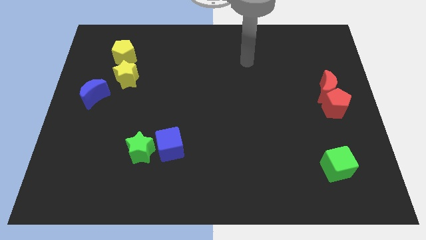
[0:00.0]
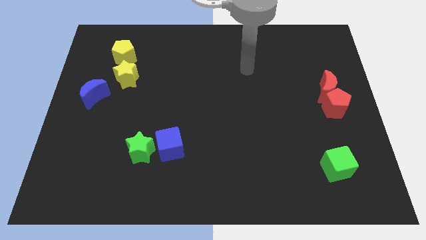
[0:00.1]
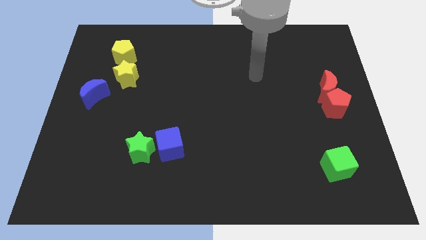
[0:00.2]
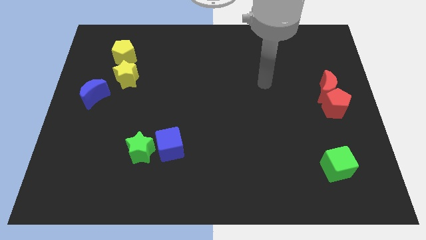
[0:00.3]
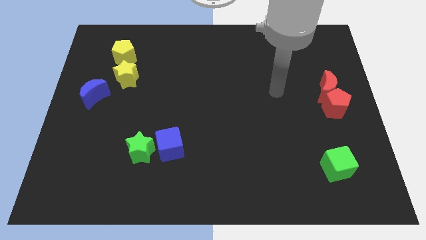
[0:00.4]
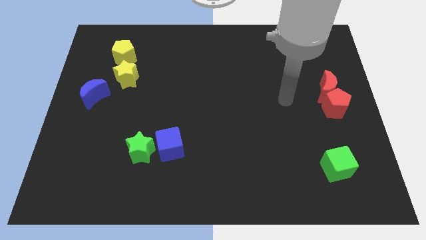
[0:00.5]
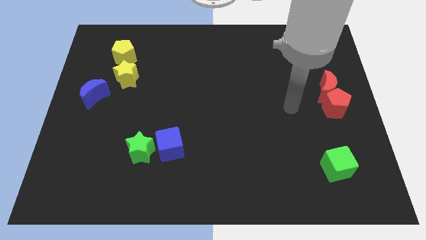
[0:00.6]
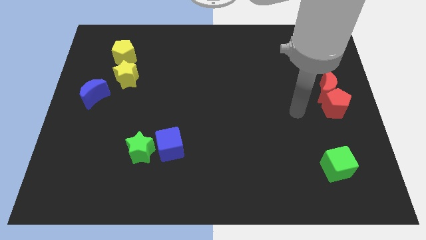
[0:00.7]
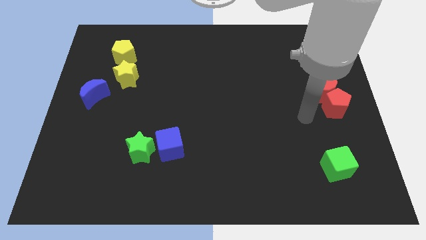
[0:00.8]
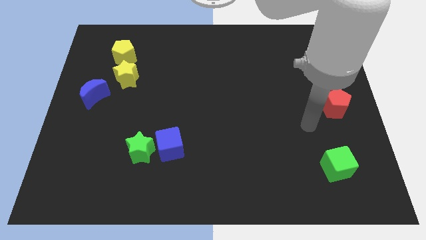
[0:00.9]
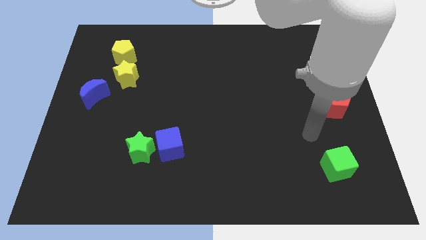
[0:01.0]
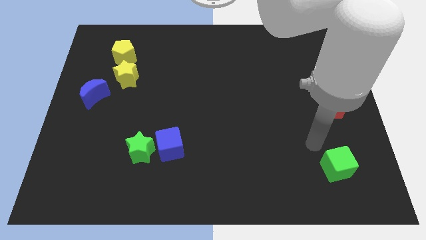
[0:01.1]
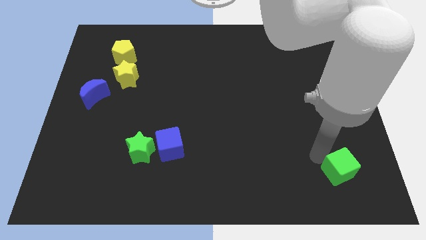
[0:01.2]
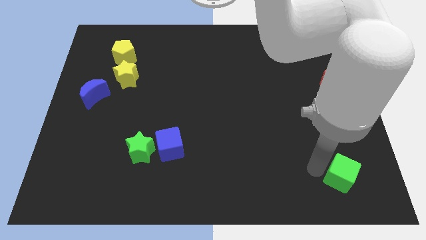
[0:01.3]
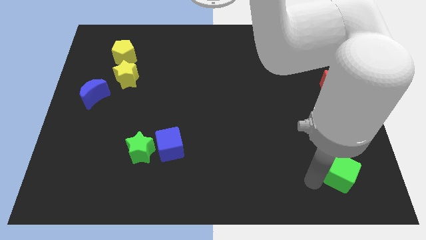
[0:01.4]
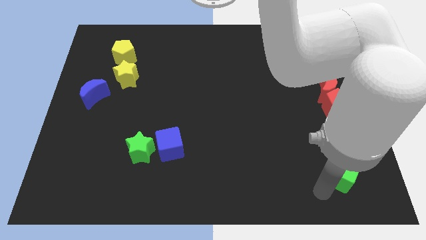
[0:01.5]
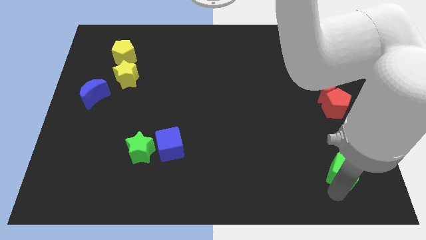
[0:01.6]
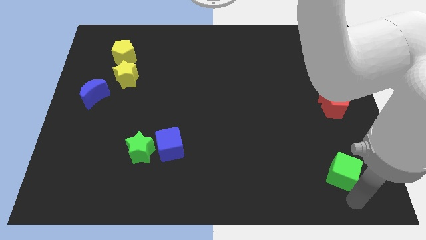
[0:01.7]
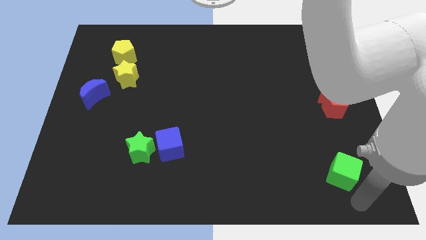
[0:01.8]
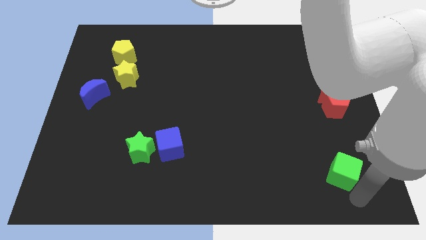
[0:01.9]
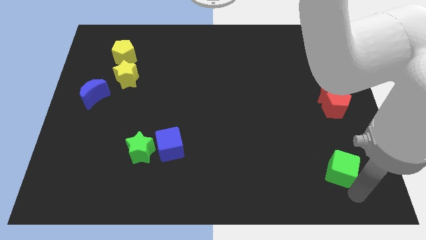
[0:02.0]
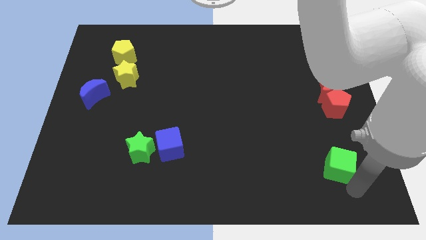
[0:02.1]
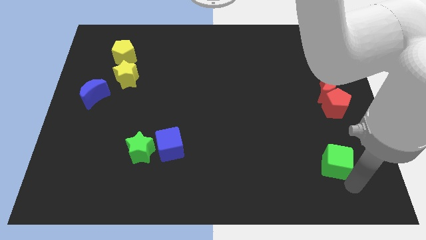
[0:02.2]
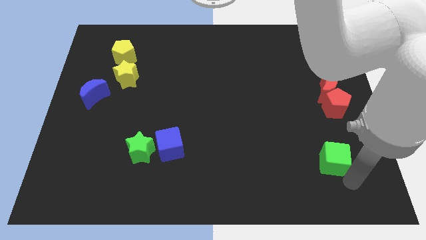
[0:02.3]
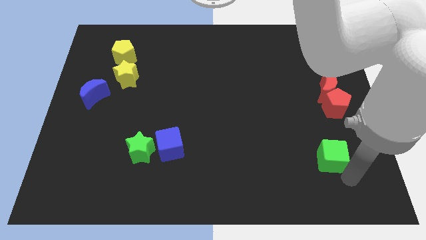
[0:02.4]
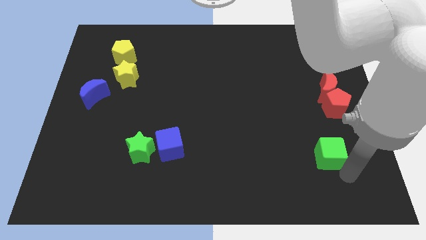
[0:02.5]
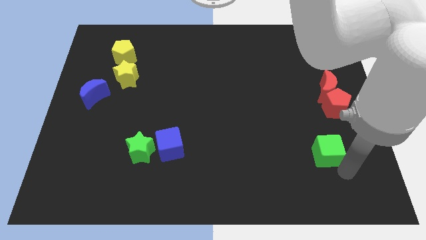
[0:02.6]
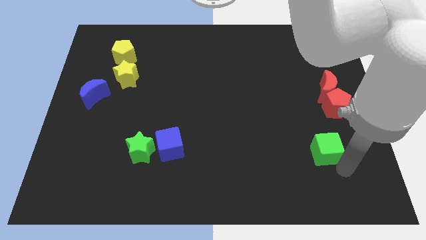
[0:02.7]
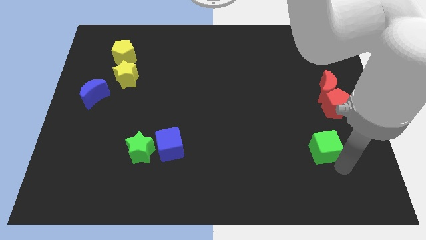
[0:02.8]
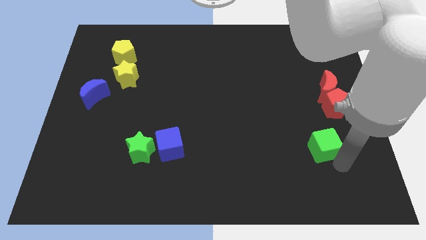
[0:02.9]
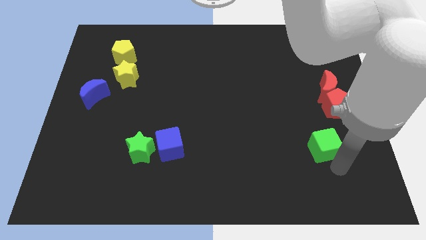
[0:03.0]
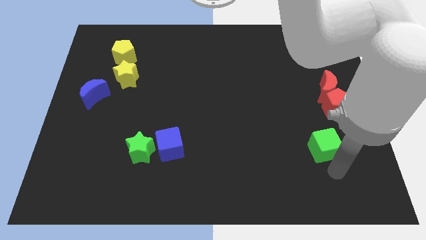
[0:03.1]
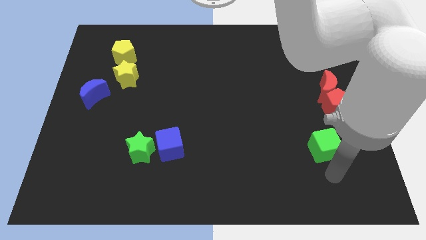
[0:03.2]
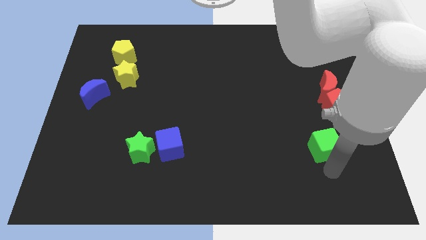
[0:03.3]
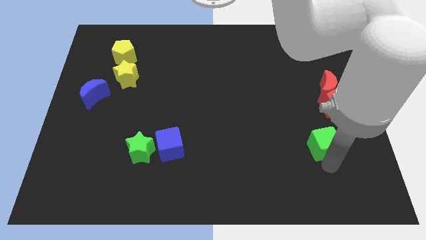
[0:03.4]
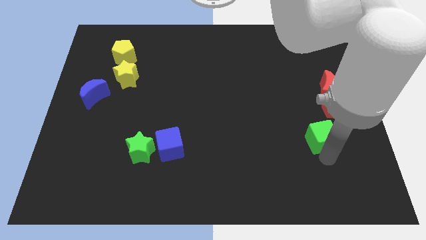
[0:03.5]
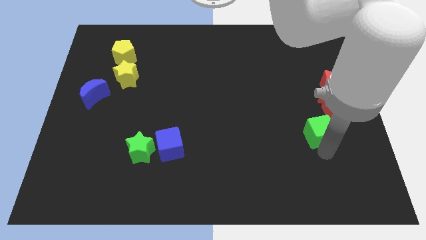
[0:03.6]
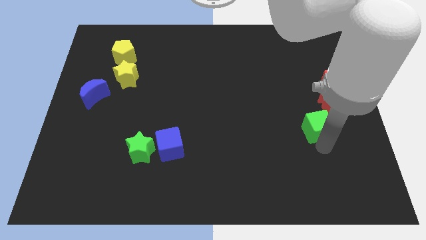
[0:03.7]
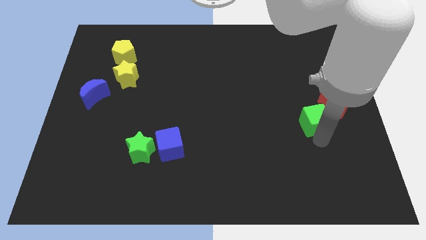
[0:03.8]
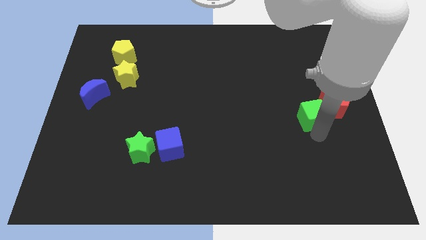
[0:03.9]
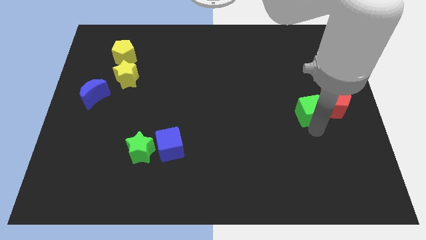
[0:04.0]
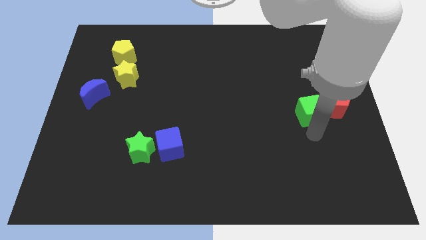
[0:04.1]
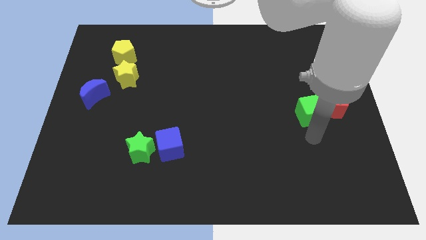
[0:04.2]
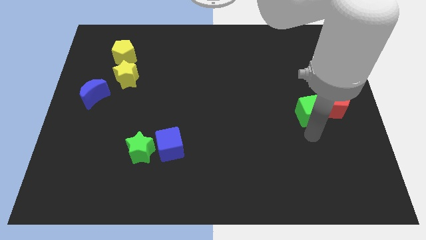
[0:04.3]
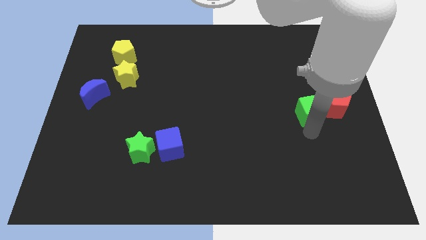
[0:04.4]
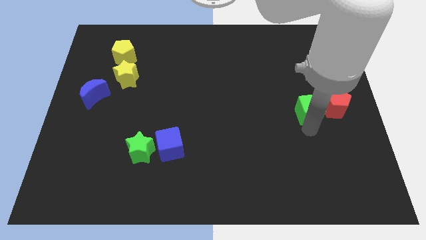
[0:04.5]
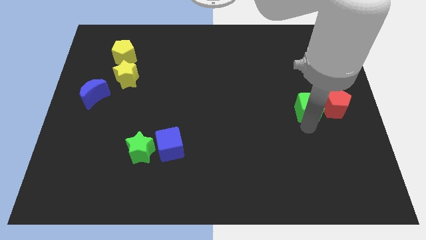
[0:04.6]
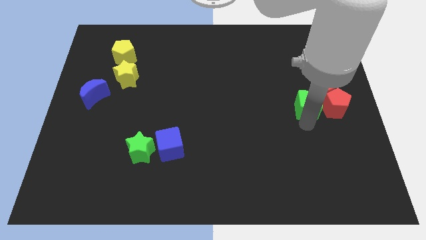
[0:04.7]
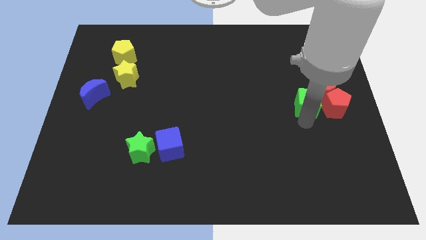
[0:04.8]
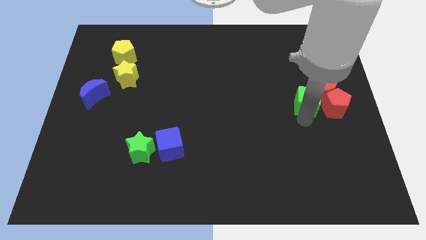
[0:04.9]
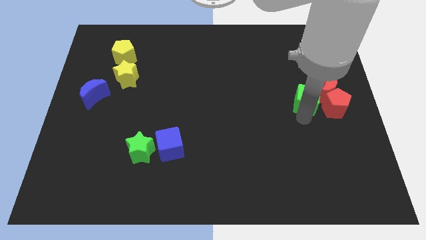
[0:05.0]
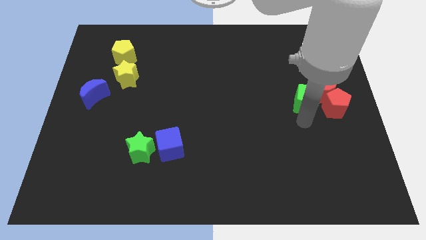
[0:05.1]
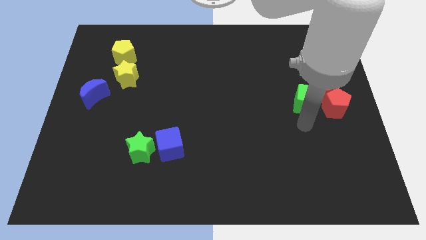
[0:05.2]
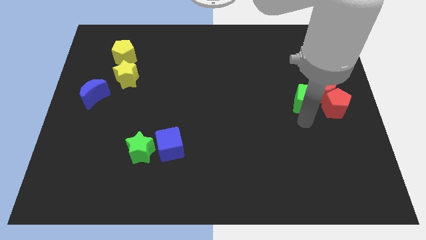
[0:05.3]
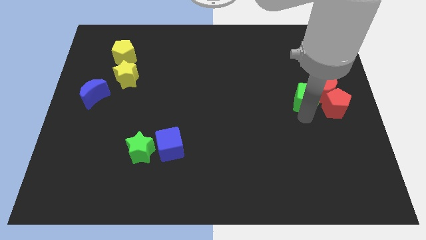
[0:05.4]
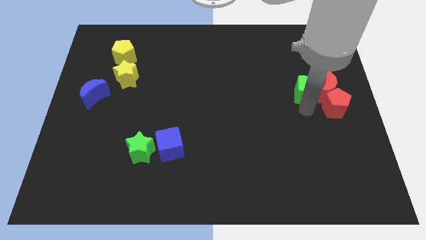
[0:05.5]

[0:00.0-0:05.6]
push the green cube to the top left of the red moon

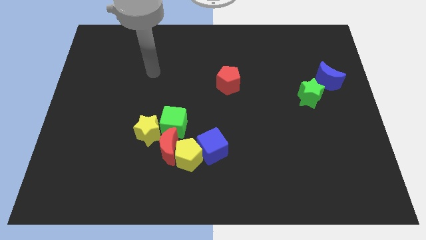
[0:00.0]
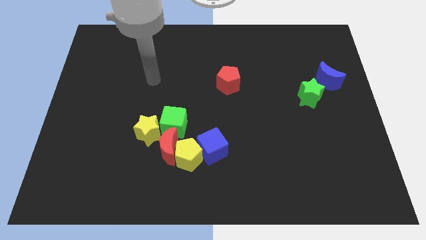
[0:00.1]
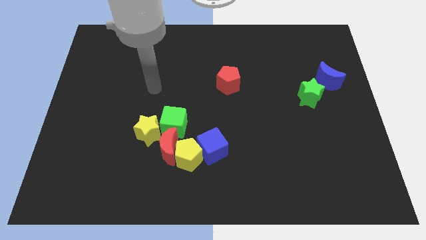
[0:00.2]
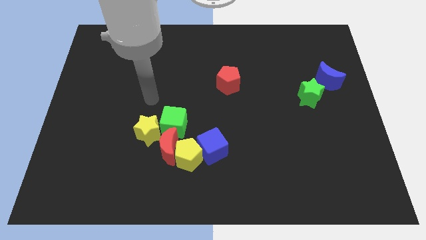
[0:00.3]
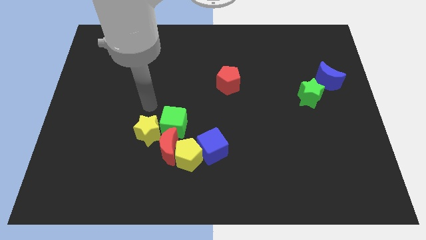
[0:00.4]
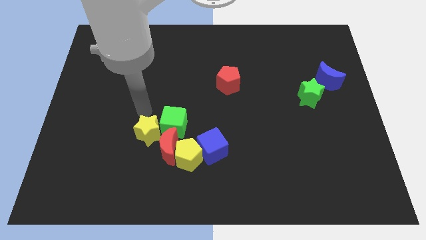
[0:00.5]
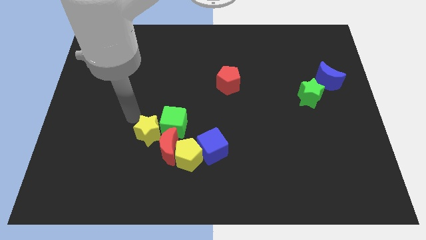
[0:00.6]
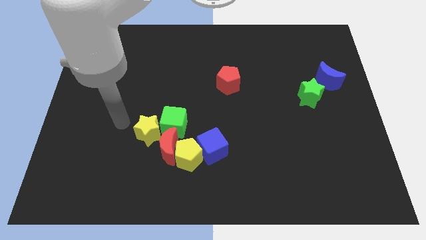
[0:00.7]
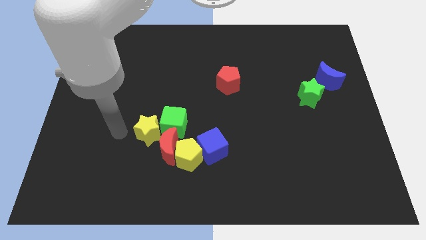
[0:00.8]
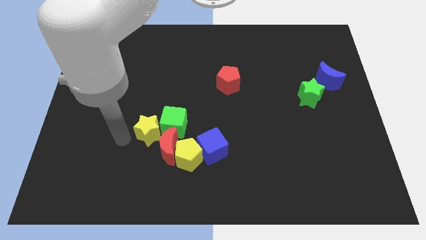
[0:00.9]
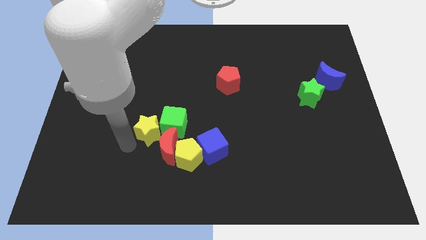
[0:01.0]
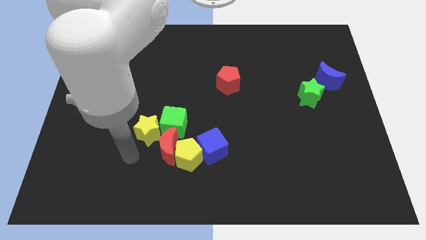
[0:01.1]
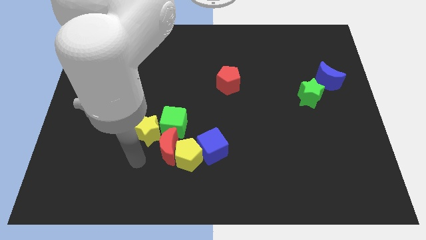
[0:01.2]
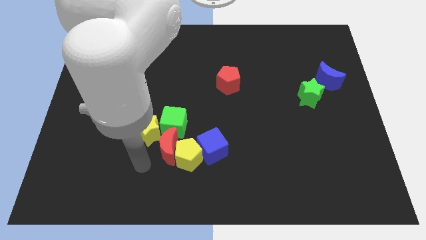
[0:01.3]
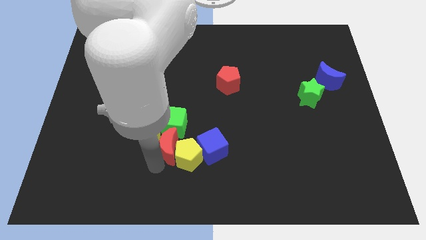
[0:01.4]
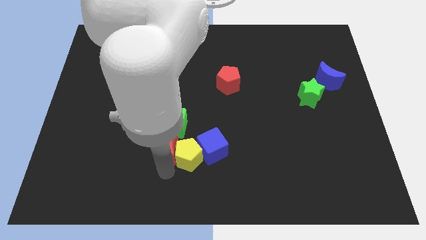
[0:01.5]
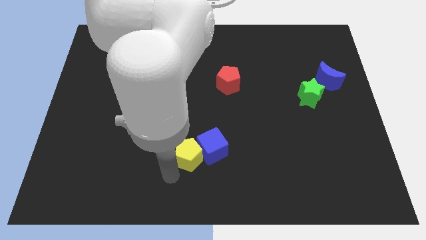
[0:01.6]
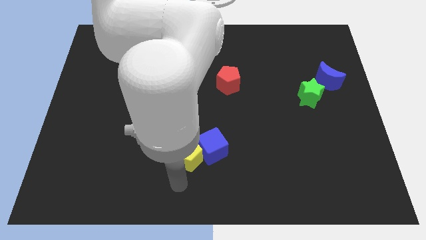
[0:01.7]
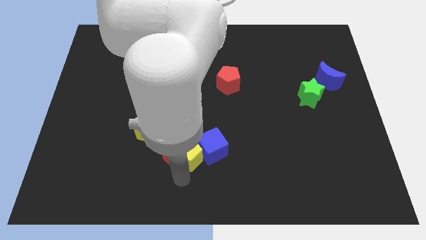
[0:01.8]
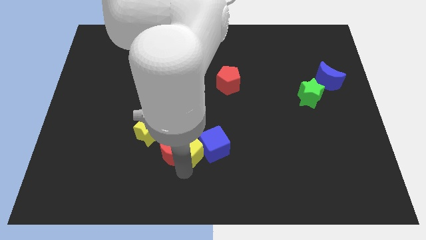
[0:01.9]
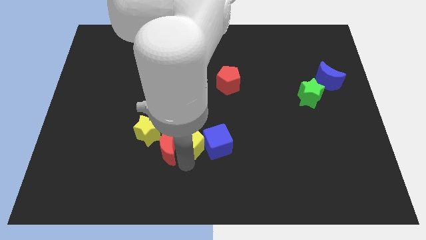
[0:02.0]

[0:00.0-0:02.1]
move the yellow pentagon to the right side of the yellow star

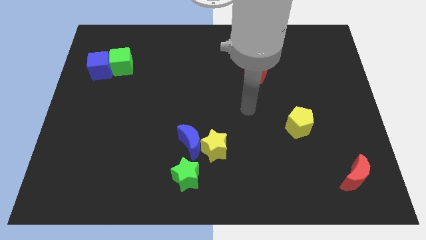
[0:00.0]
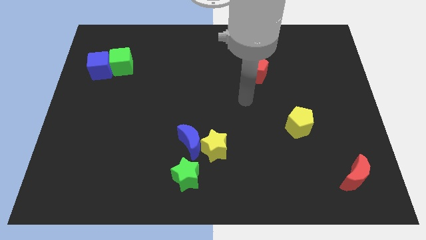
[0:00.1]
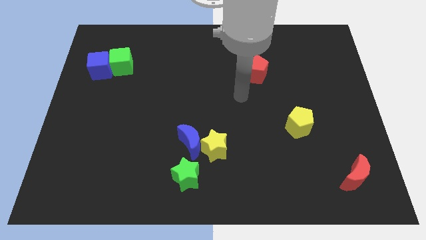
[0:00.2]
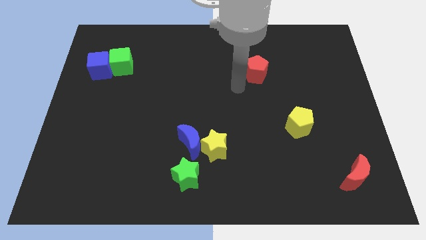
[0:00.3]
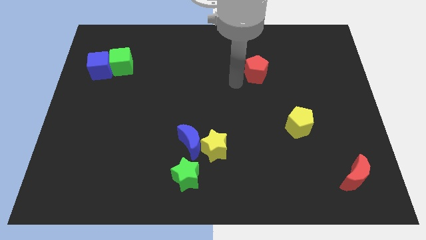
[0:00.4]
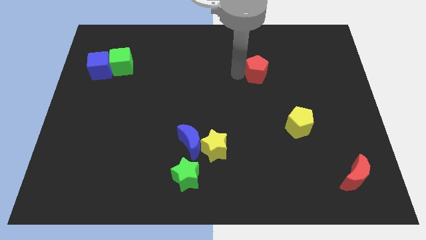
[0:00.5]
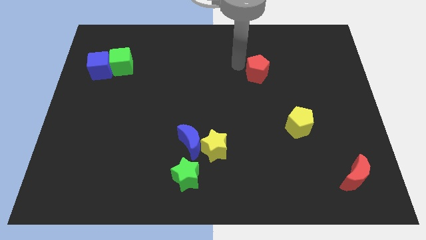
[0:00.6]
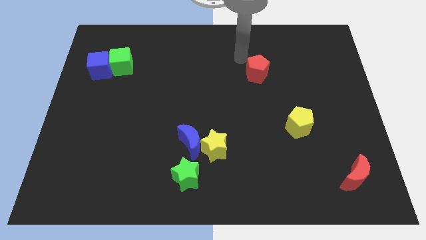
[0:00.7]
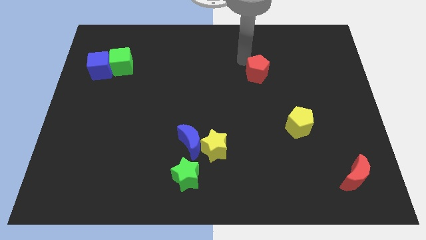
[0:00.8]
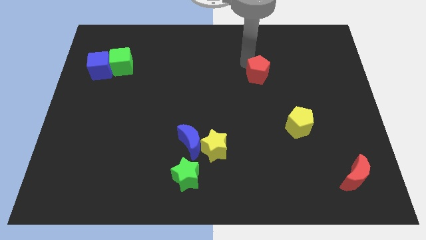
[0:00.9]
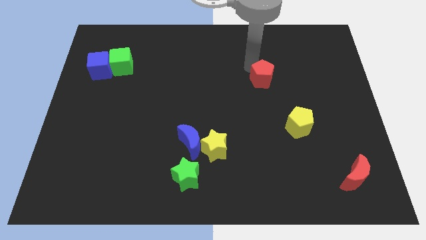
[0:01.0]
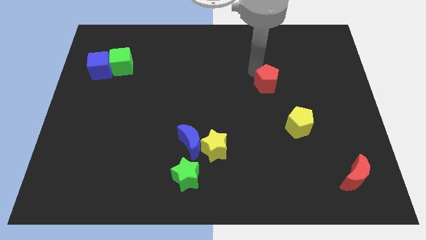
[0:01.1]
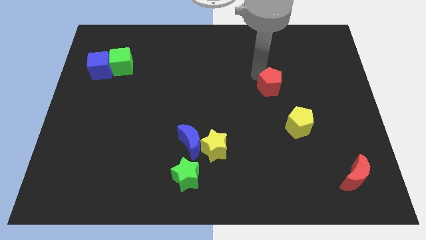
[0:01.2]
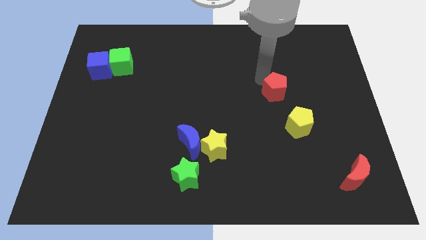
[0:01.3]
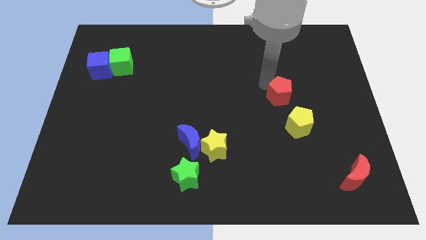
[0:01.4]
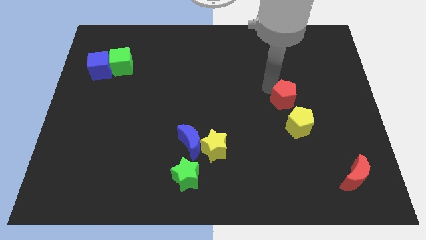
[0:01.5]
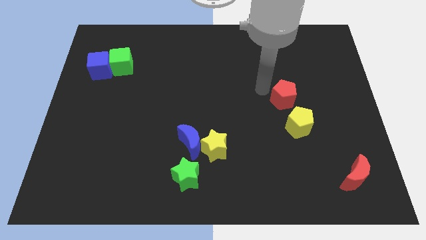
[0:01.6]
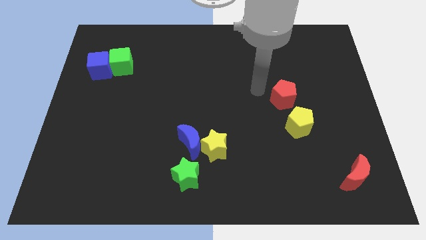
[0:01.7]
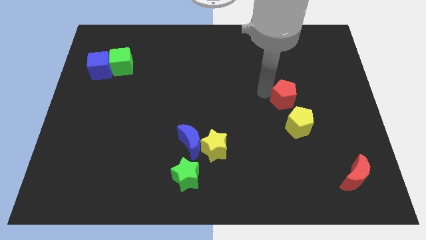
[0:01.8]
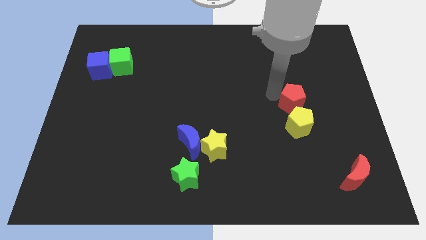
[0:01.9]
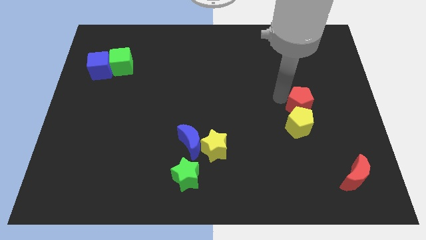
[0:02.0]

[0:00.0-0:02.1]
put the red pentagon diagonally up and to the right of the yellow pentagon
